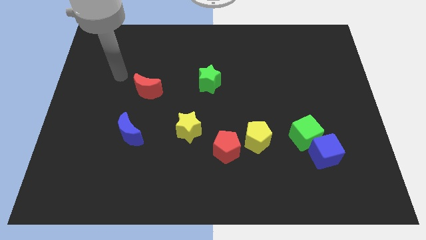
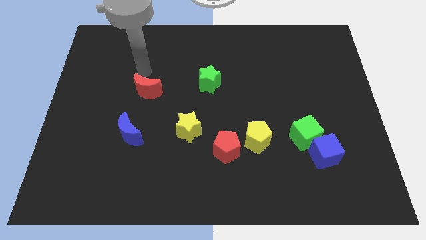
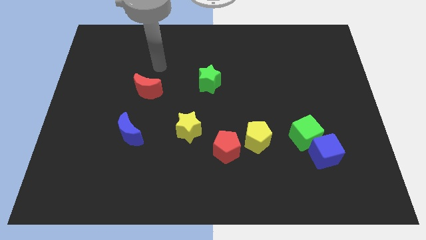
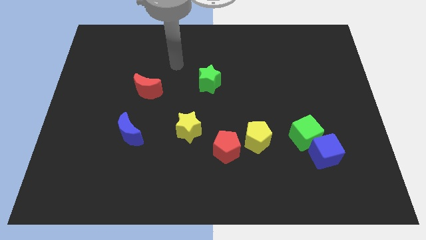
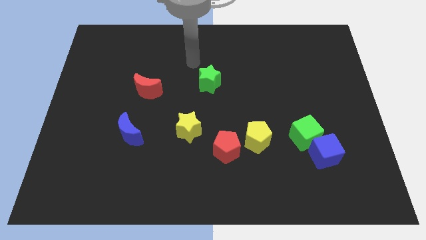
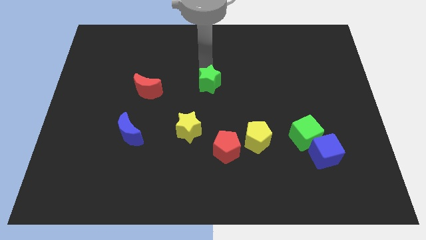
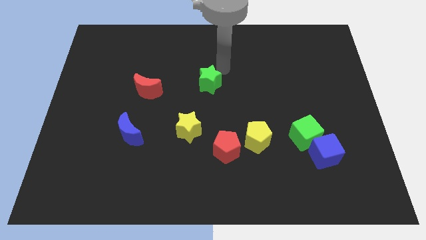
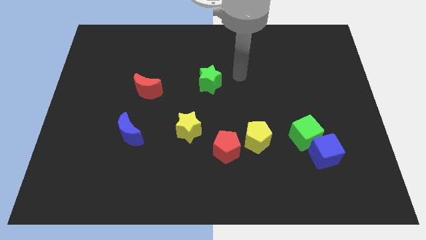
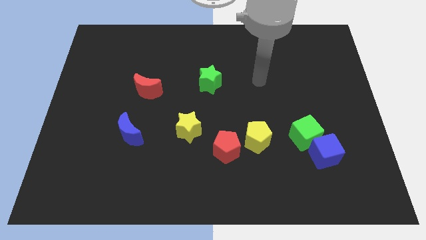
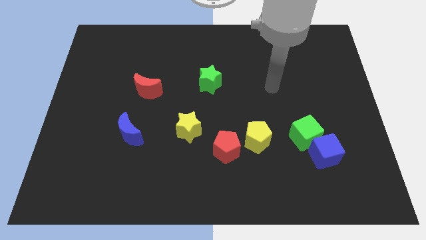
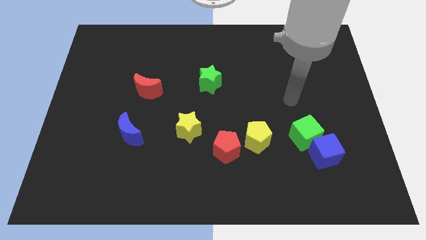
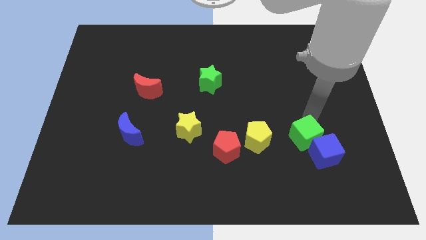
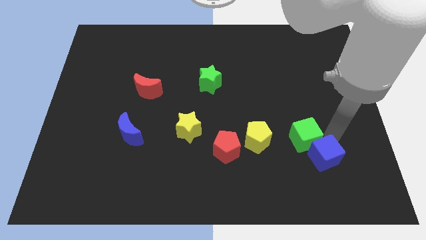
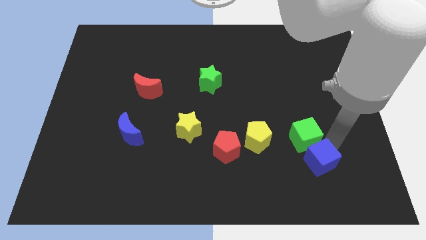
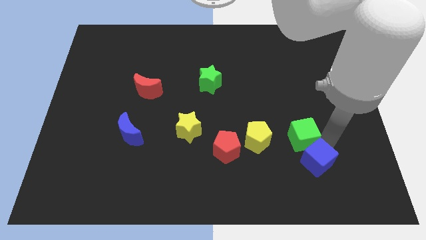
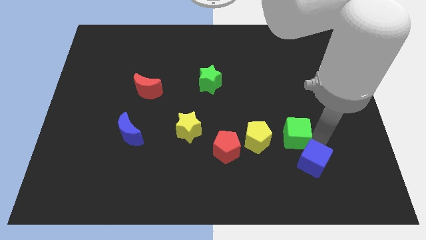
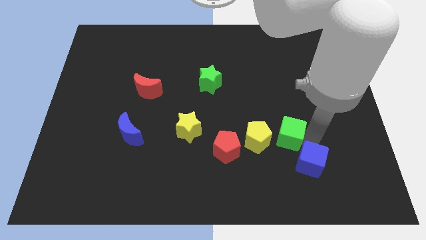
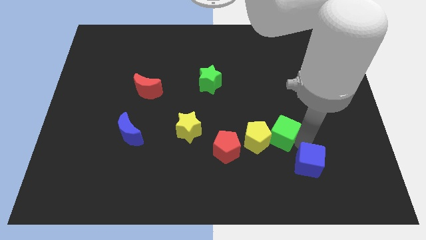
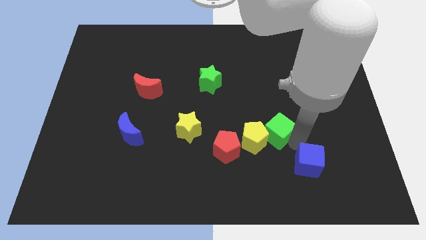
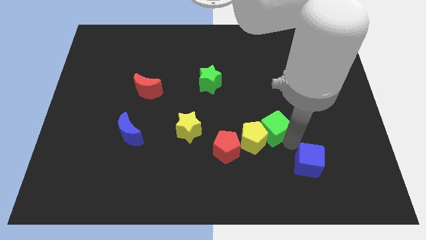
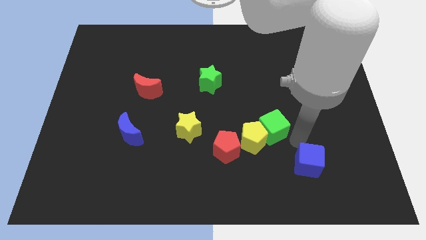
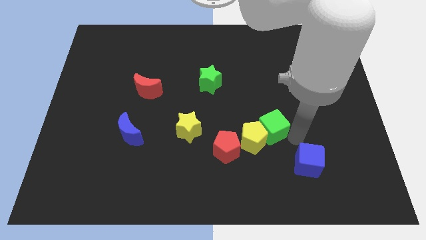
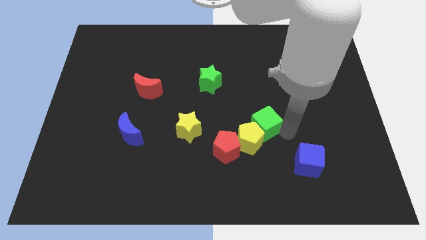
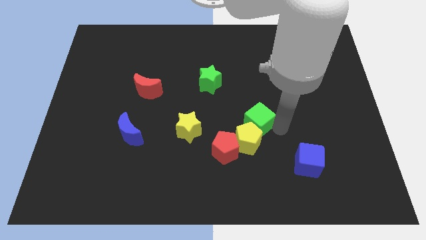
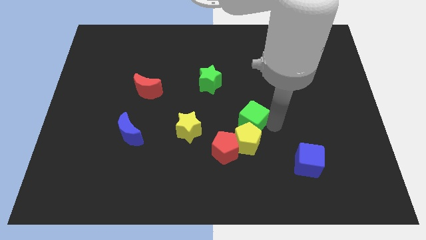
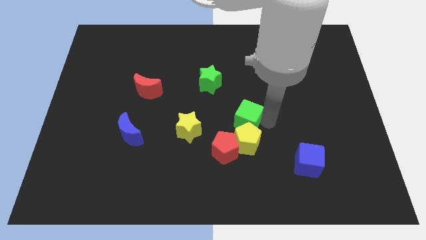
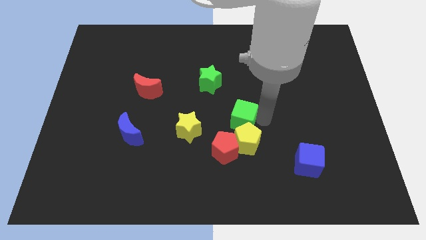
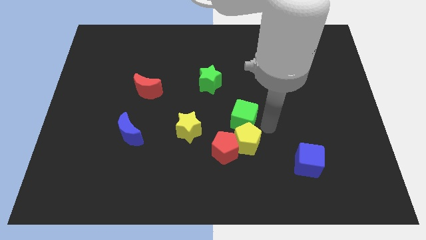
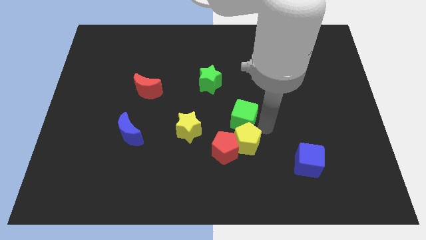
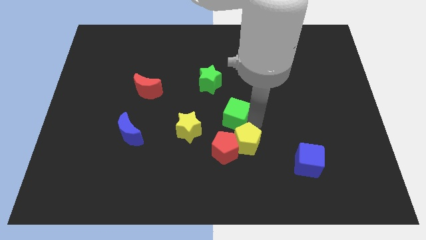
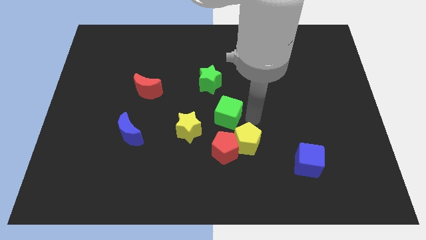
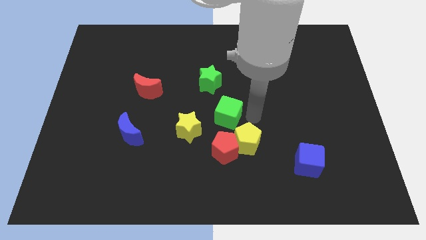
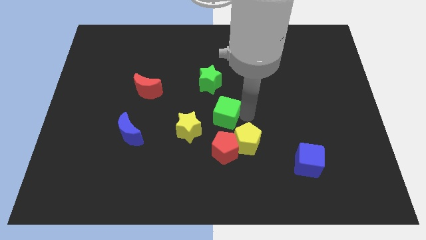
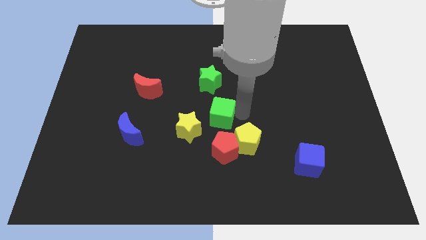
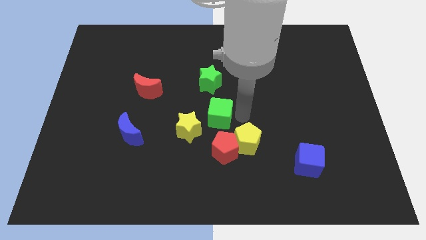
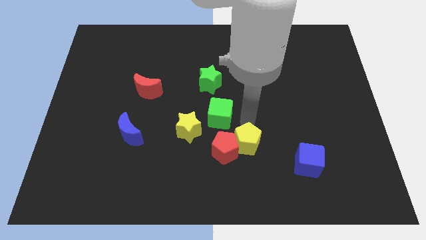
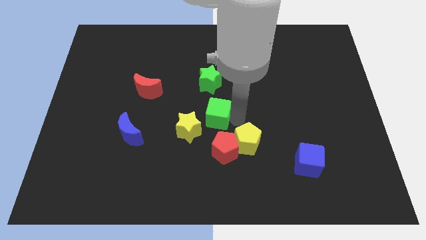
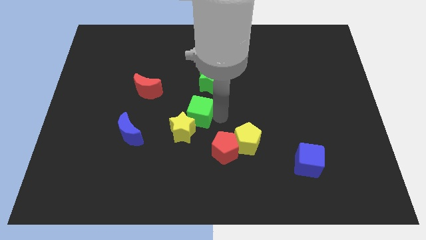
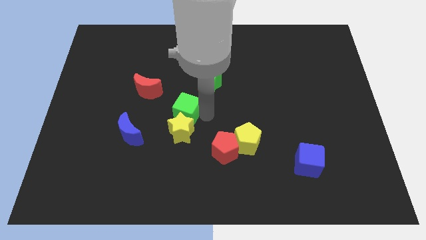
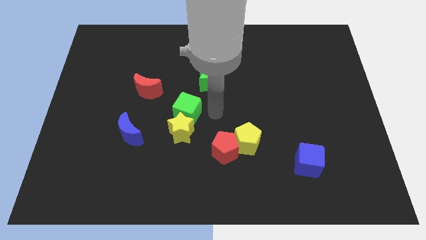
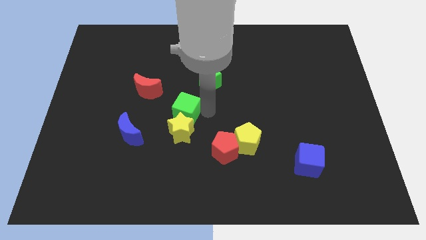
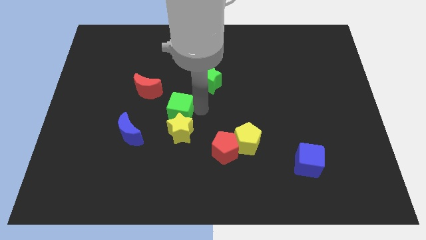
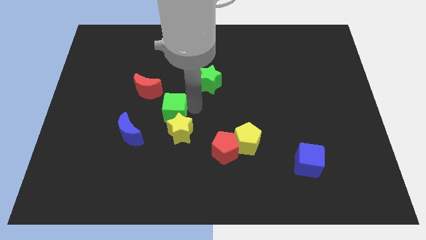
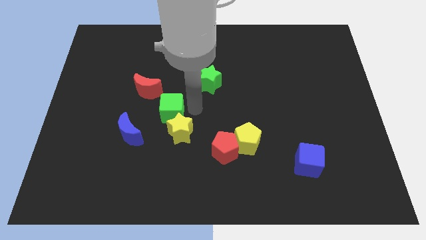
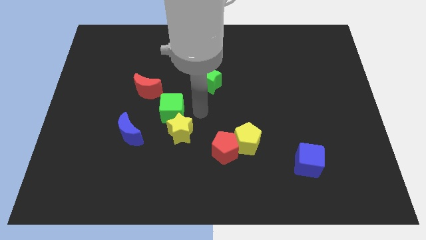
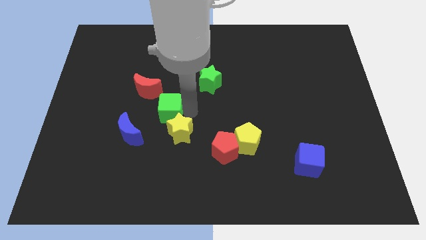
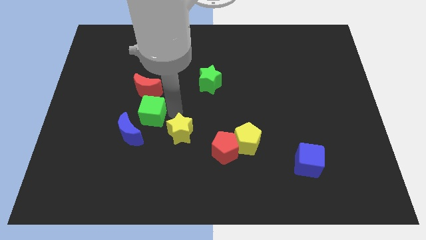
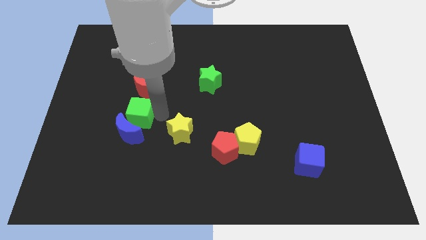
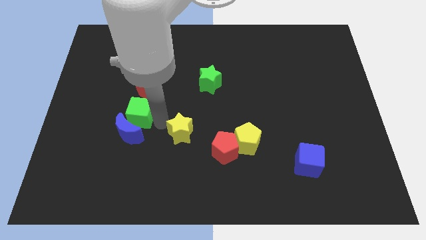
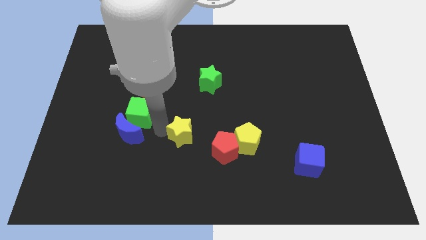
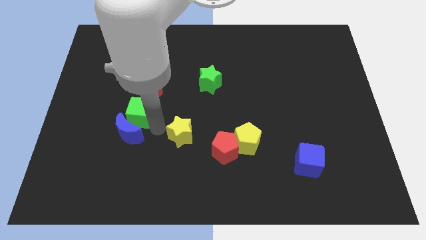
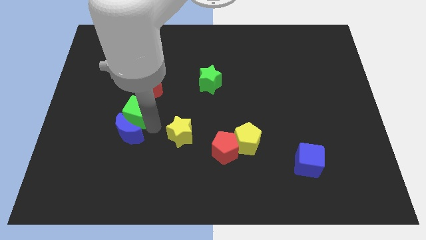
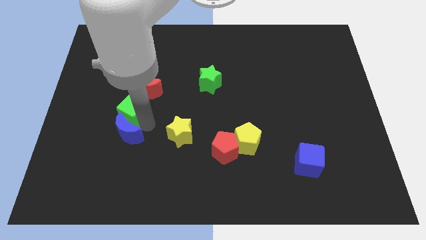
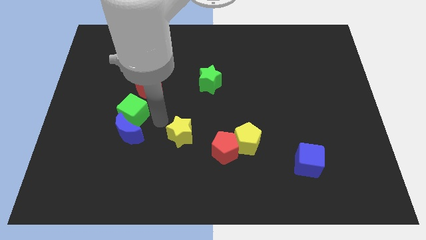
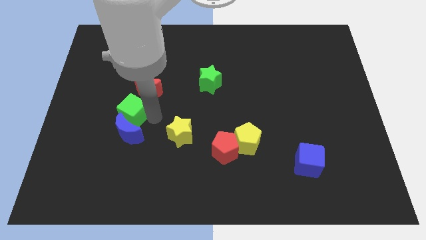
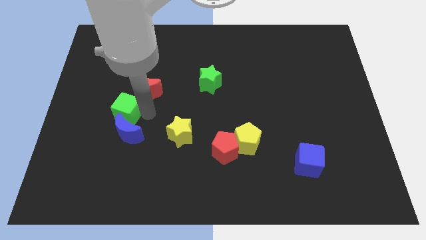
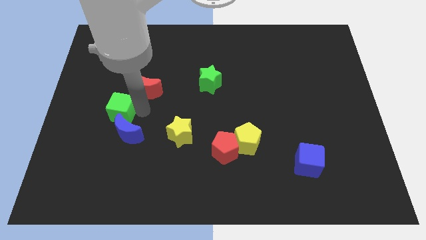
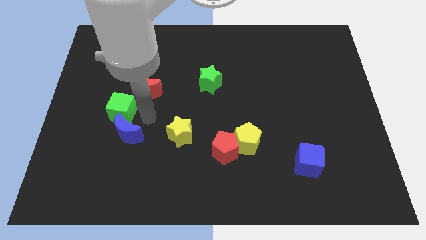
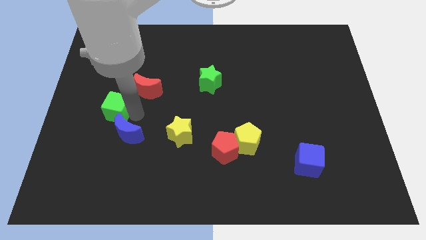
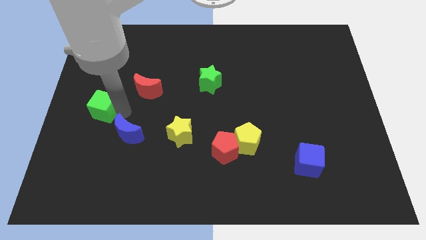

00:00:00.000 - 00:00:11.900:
move the green cube to the left side
